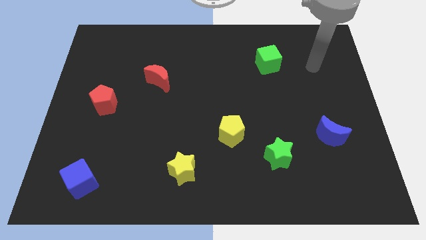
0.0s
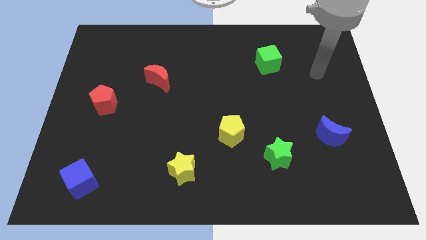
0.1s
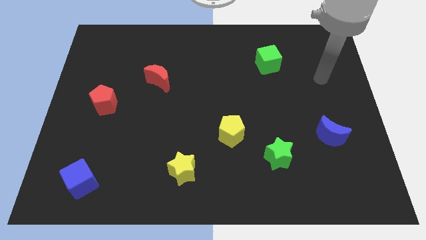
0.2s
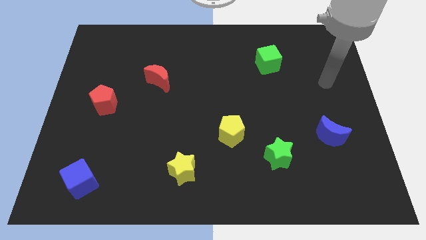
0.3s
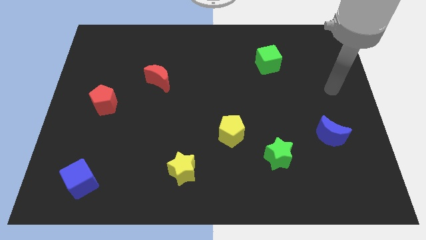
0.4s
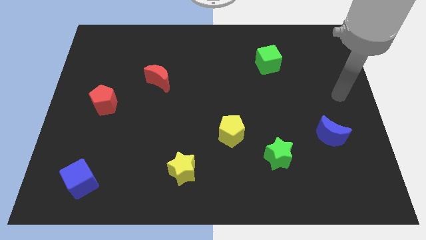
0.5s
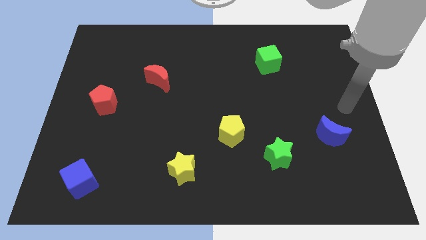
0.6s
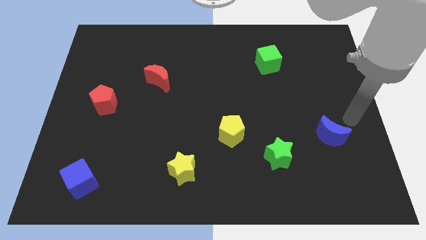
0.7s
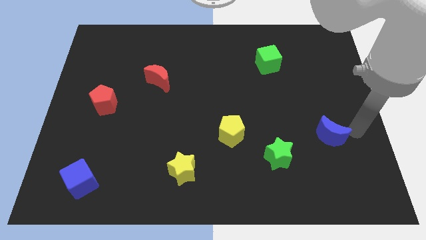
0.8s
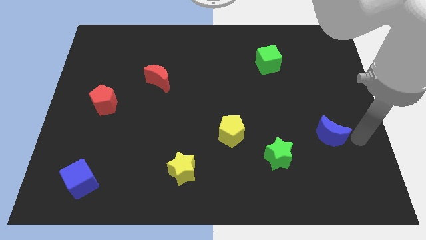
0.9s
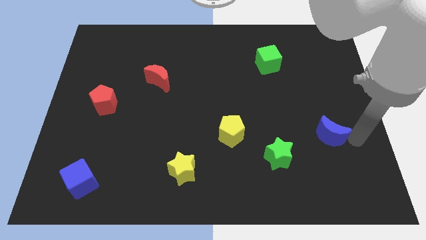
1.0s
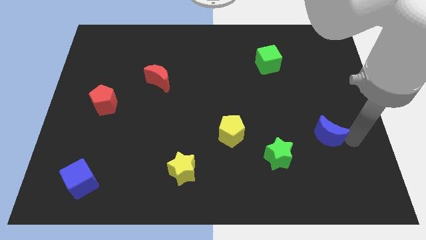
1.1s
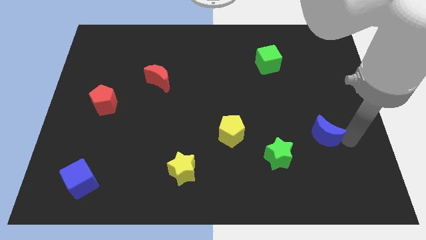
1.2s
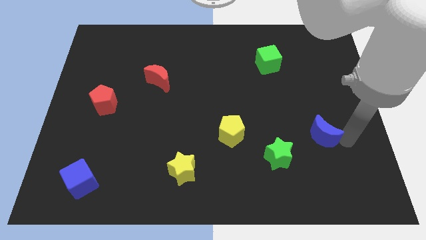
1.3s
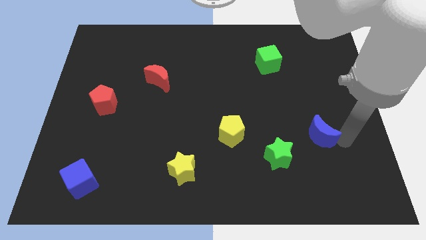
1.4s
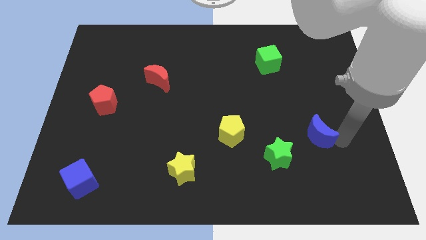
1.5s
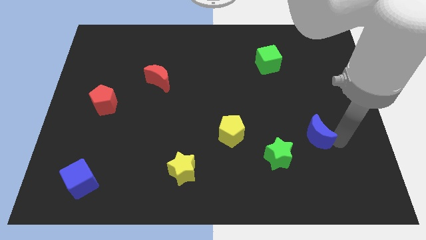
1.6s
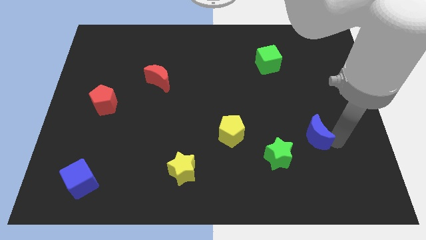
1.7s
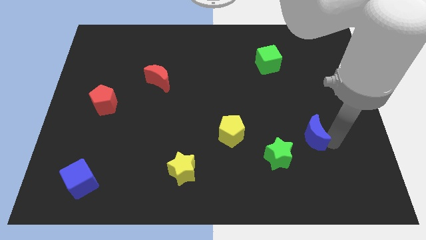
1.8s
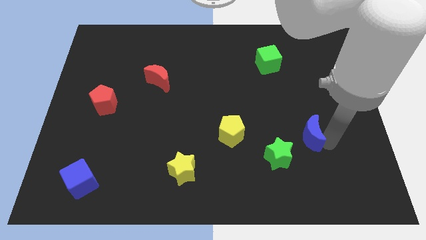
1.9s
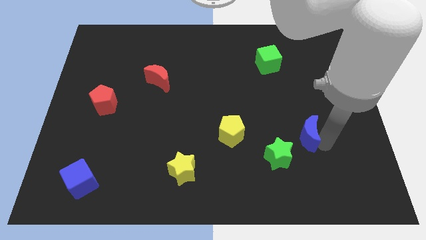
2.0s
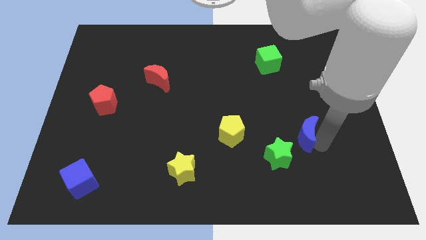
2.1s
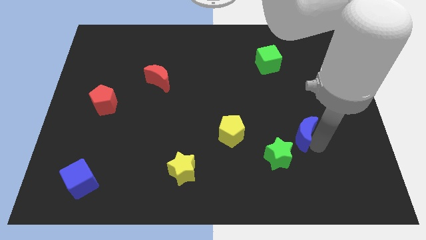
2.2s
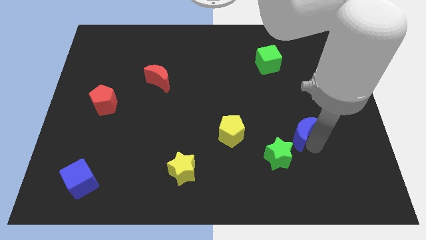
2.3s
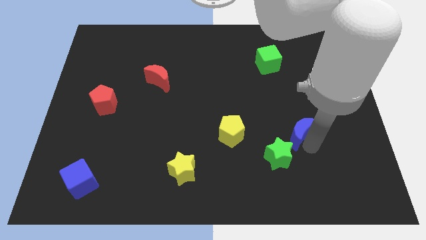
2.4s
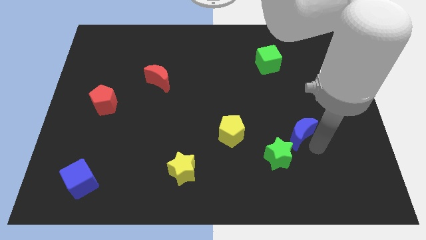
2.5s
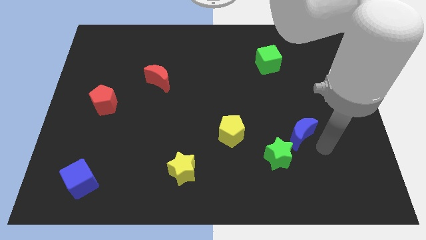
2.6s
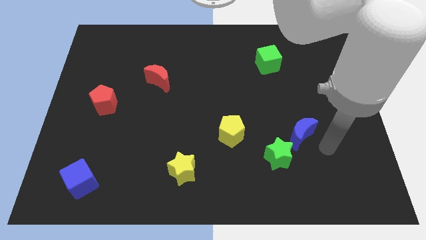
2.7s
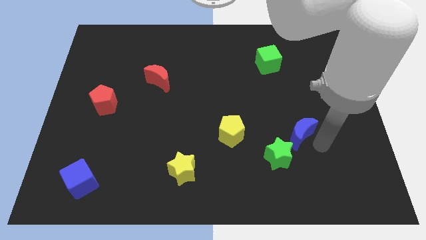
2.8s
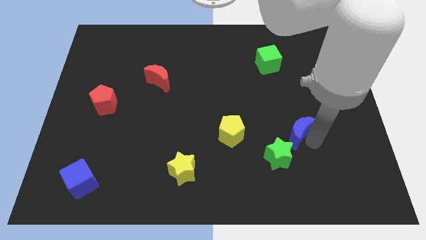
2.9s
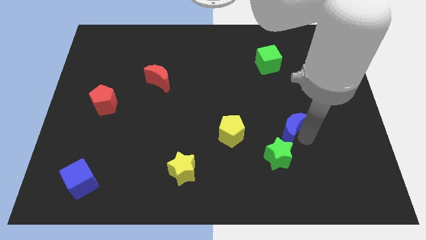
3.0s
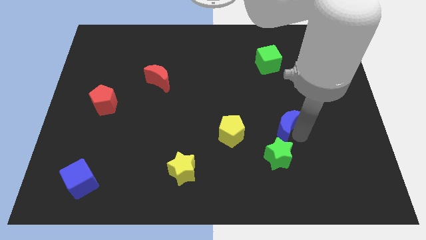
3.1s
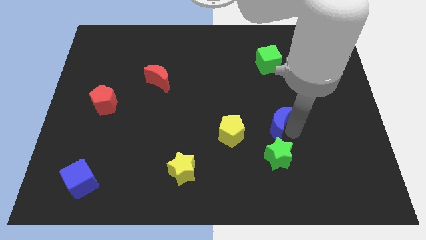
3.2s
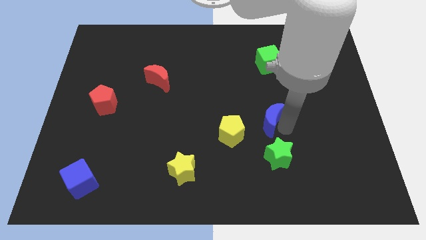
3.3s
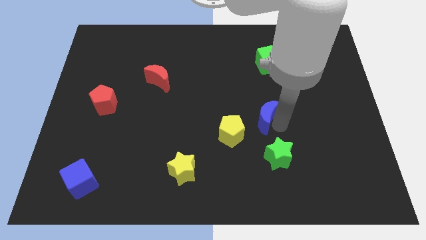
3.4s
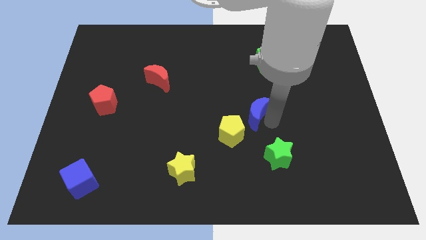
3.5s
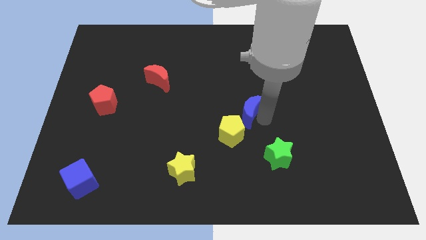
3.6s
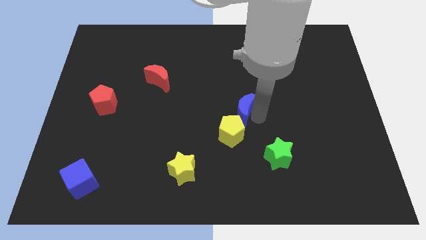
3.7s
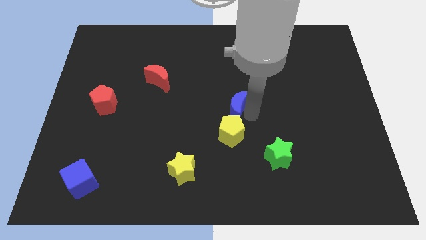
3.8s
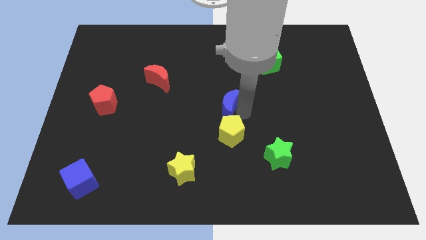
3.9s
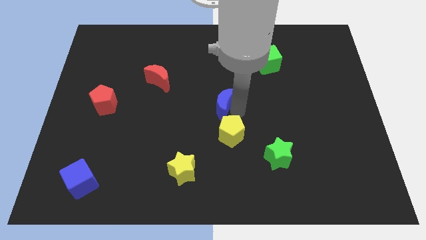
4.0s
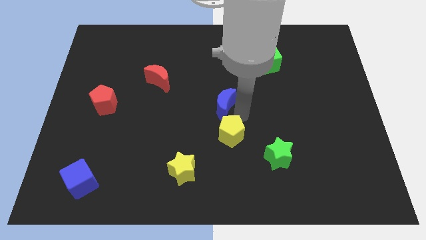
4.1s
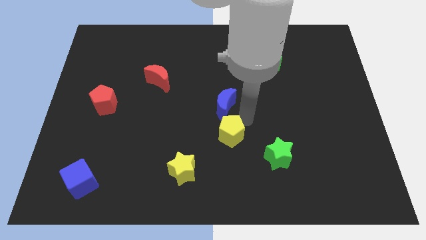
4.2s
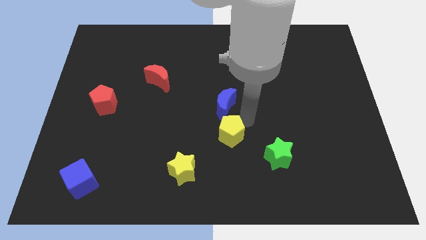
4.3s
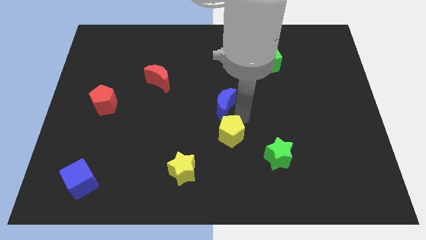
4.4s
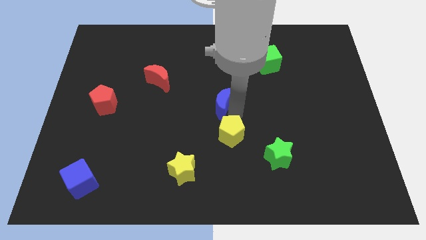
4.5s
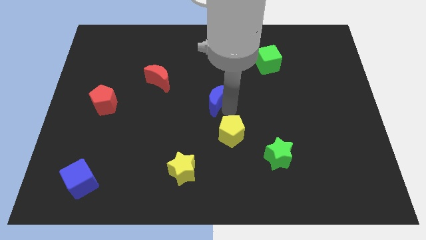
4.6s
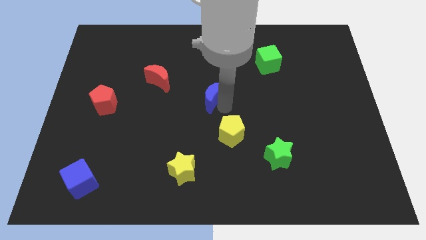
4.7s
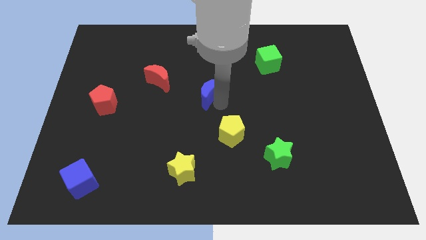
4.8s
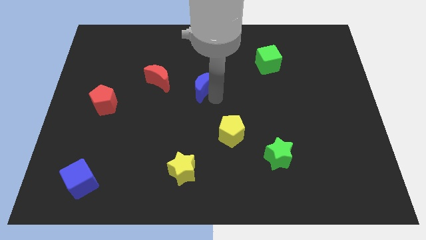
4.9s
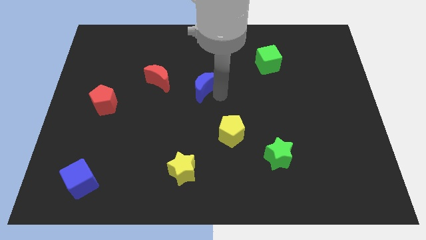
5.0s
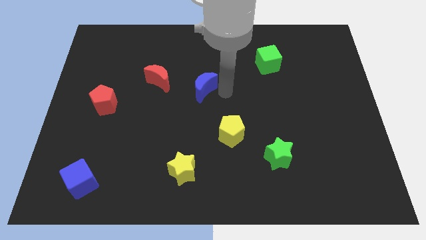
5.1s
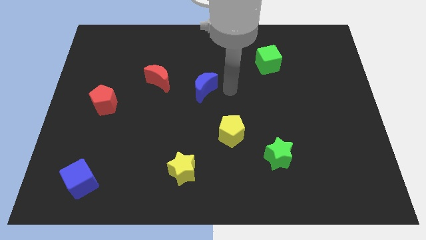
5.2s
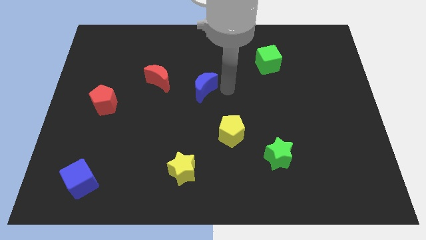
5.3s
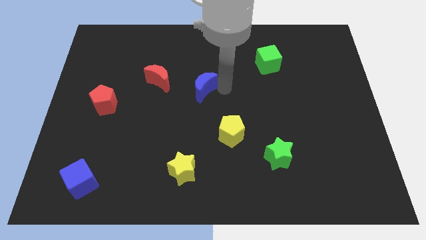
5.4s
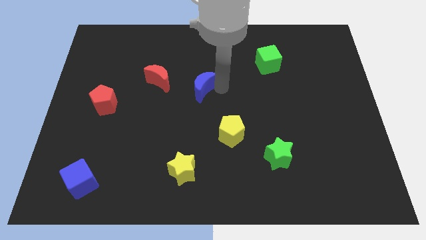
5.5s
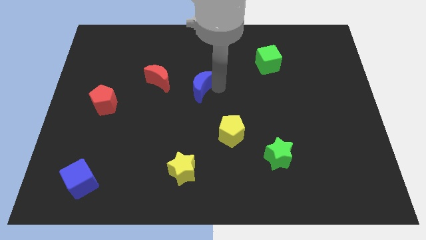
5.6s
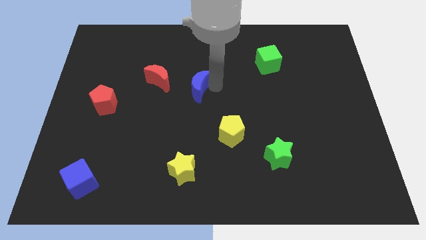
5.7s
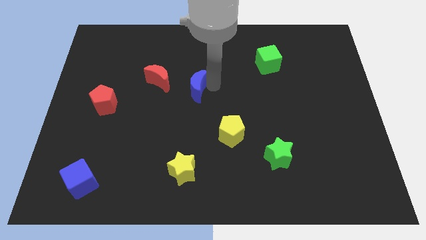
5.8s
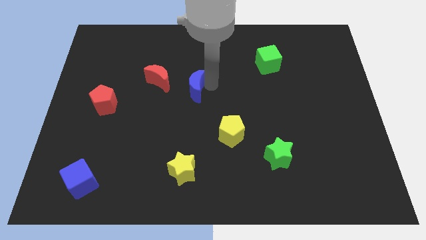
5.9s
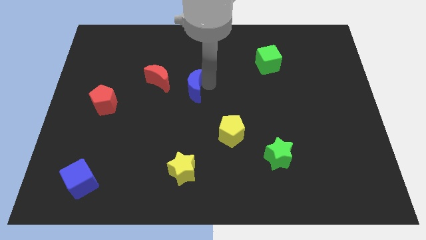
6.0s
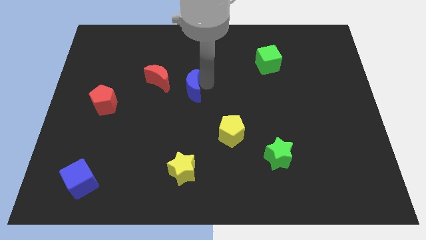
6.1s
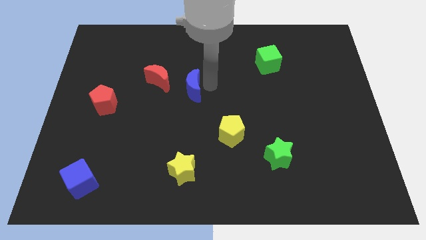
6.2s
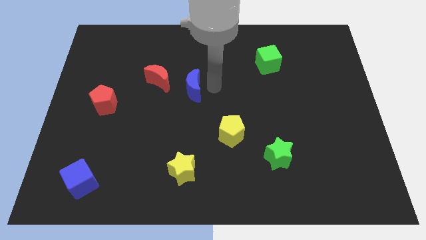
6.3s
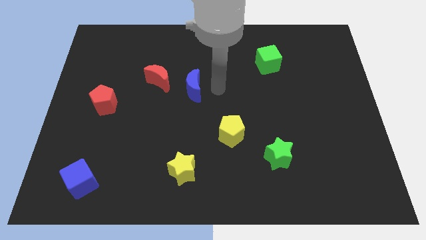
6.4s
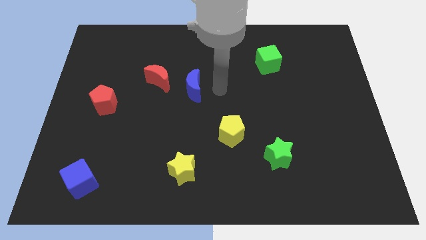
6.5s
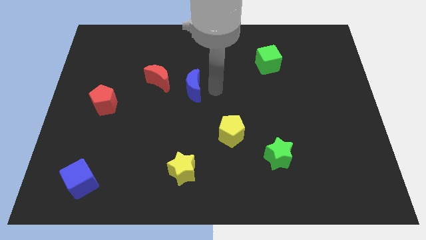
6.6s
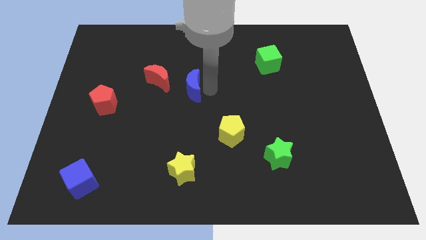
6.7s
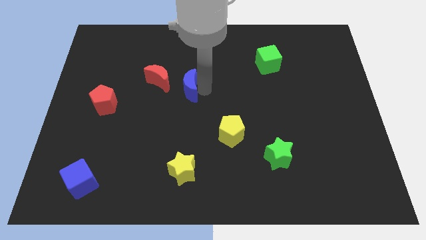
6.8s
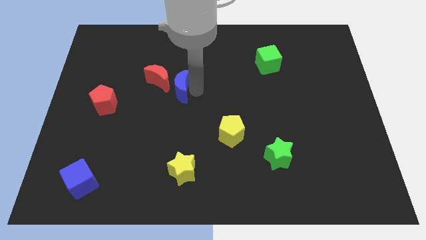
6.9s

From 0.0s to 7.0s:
put the blue moon close to the red moon
